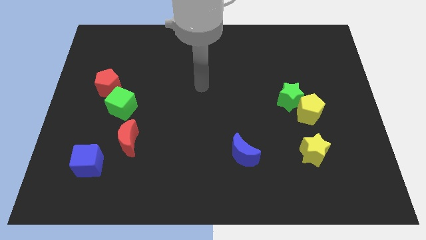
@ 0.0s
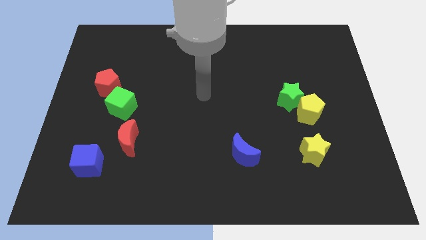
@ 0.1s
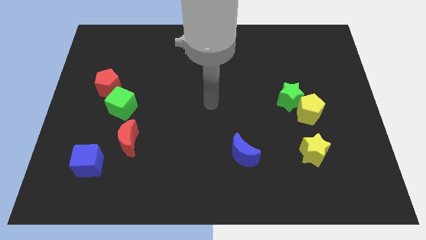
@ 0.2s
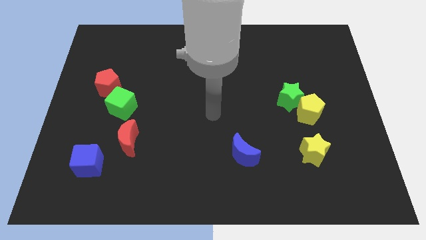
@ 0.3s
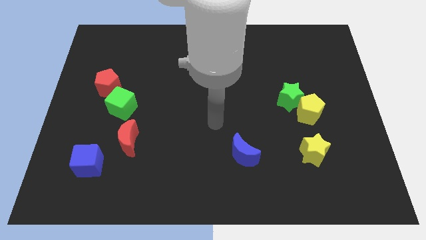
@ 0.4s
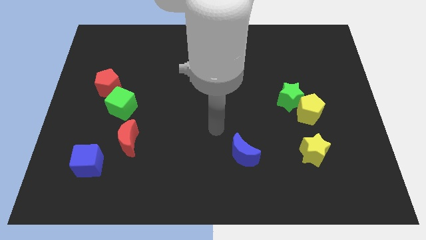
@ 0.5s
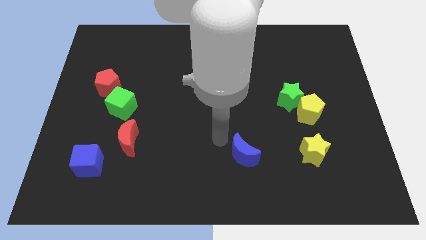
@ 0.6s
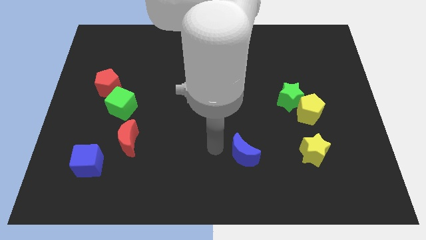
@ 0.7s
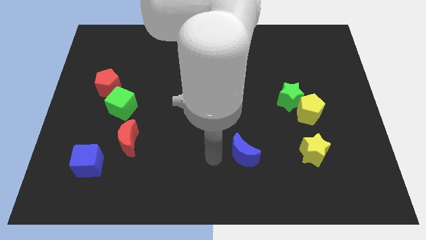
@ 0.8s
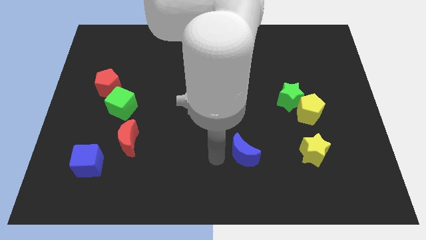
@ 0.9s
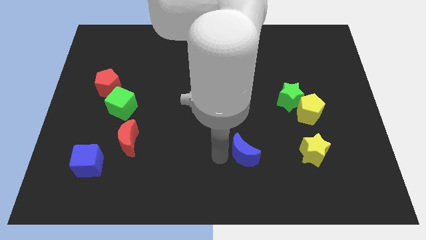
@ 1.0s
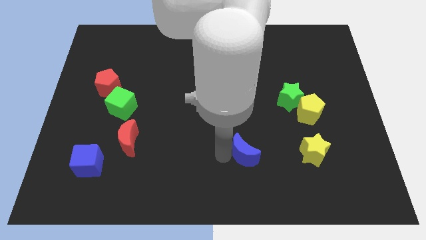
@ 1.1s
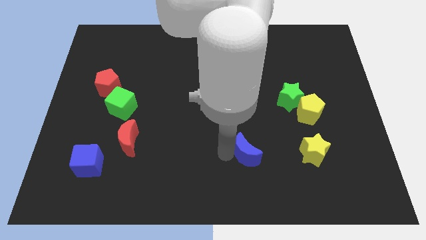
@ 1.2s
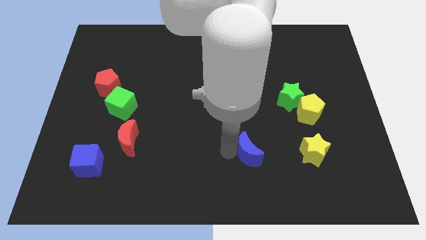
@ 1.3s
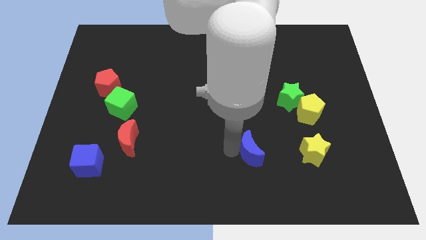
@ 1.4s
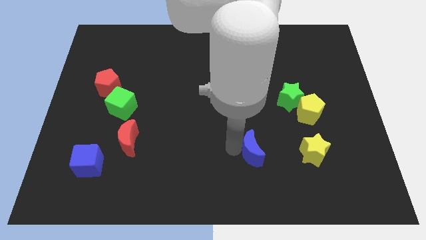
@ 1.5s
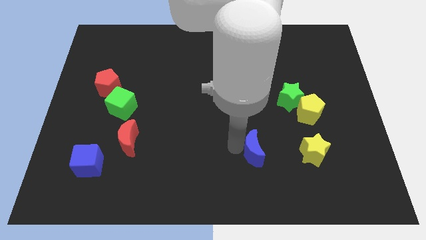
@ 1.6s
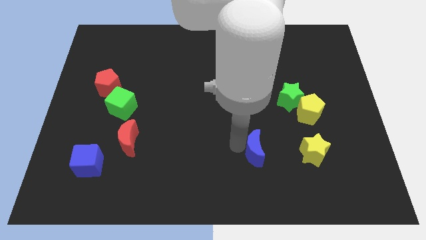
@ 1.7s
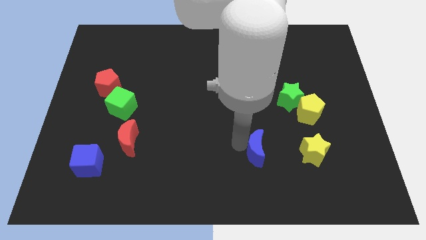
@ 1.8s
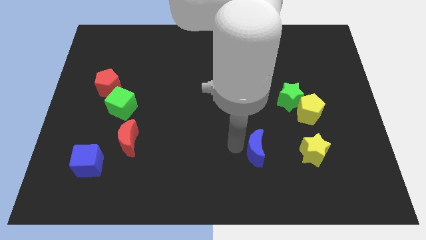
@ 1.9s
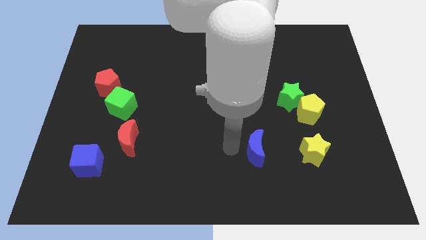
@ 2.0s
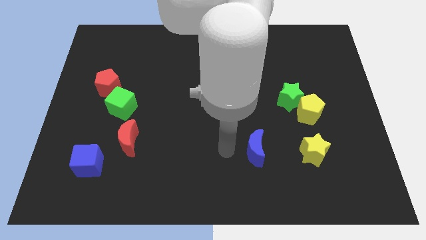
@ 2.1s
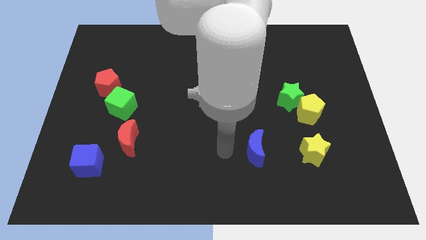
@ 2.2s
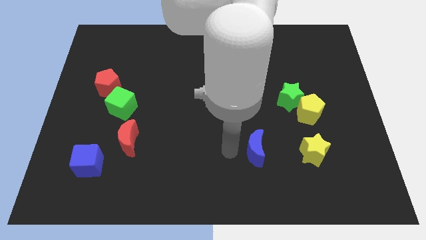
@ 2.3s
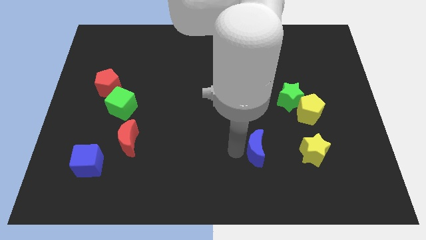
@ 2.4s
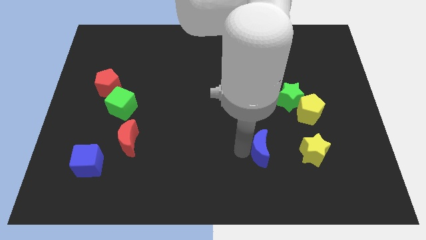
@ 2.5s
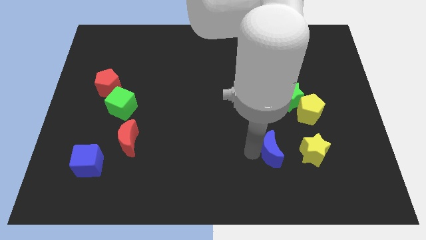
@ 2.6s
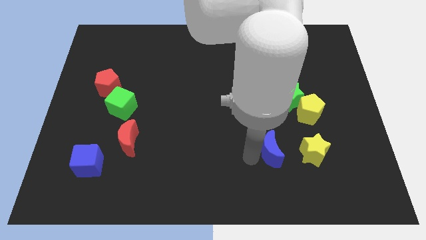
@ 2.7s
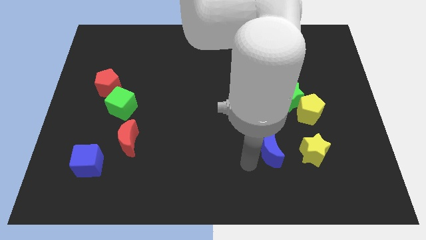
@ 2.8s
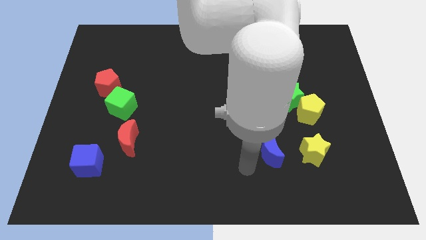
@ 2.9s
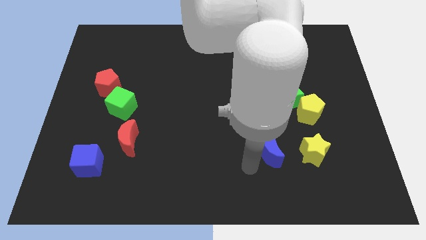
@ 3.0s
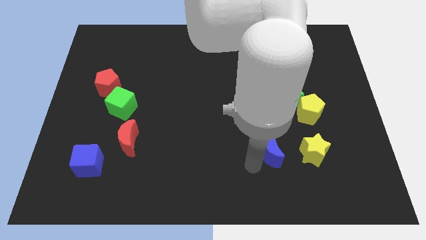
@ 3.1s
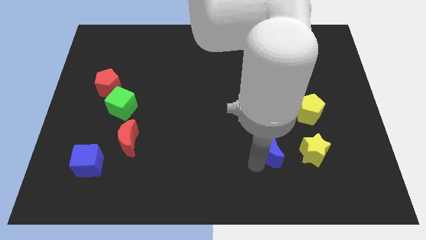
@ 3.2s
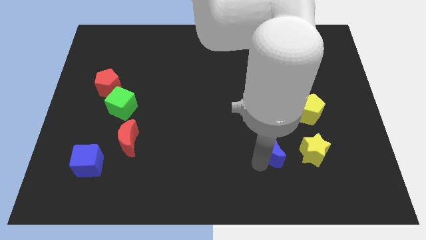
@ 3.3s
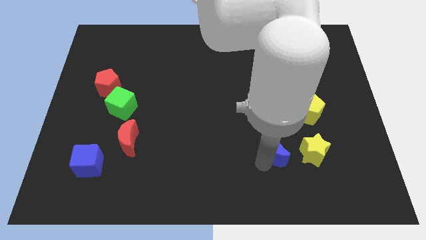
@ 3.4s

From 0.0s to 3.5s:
slightly push the blue moon to the right

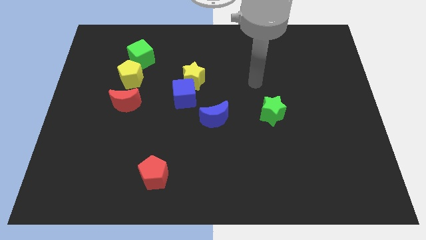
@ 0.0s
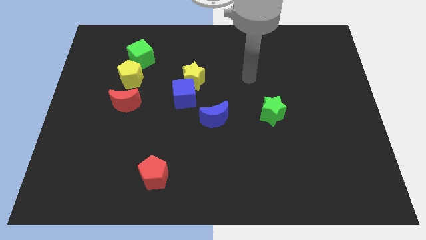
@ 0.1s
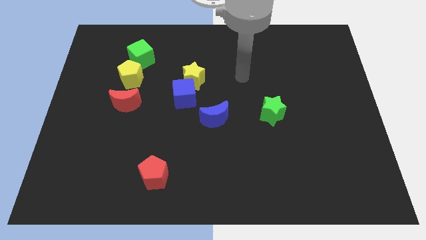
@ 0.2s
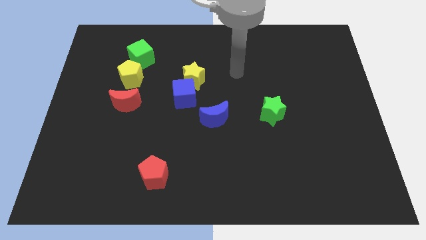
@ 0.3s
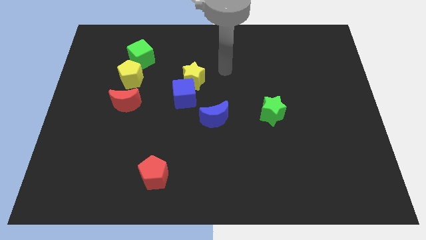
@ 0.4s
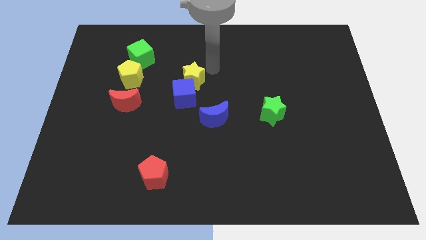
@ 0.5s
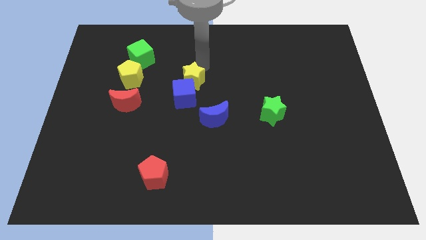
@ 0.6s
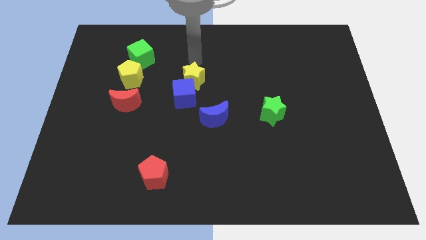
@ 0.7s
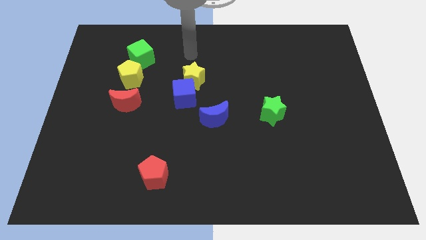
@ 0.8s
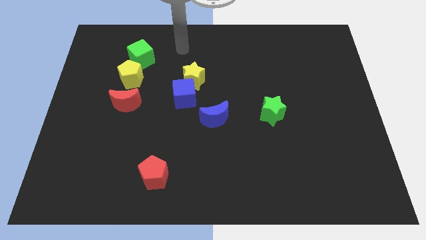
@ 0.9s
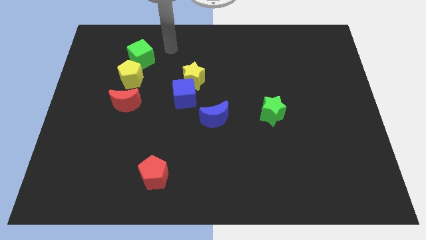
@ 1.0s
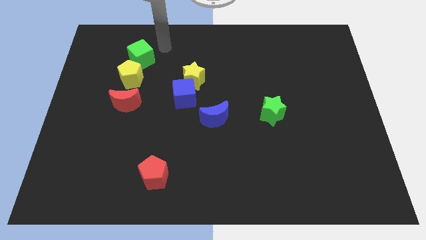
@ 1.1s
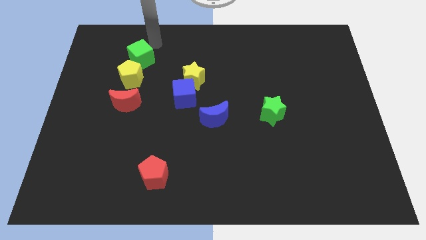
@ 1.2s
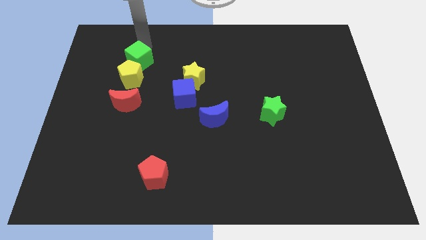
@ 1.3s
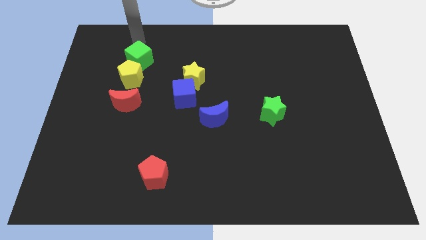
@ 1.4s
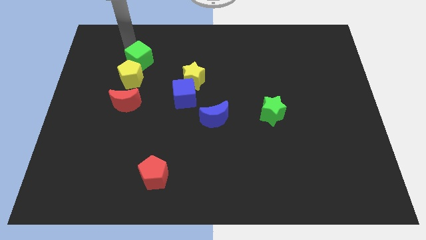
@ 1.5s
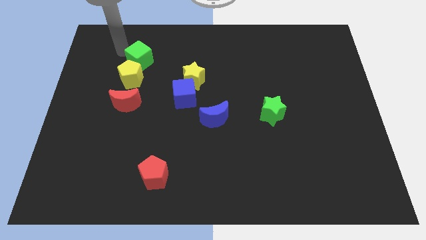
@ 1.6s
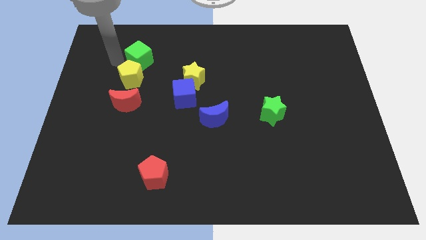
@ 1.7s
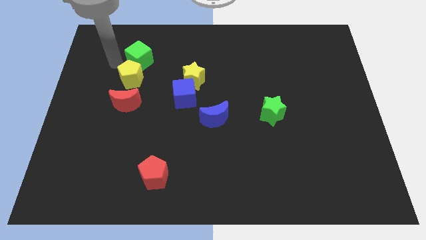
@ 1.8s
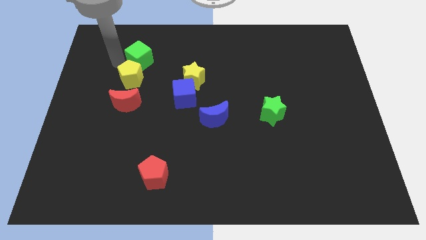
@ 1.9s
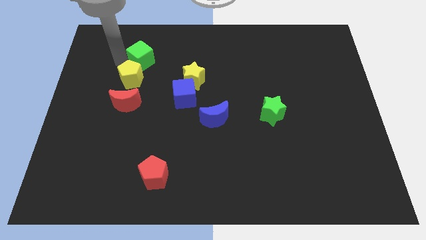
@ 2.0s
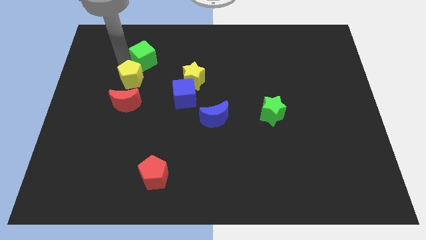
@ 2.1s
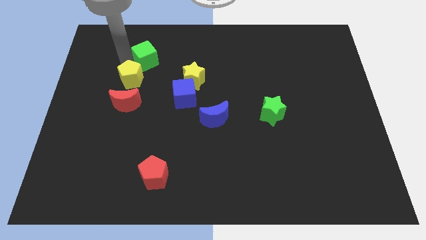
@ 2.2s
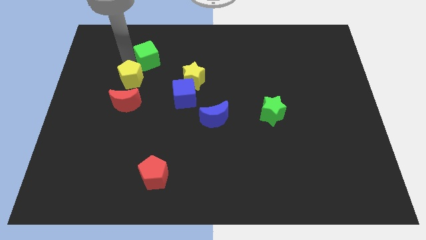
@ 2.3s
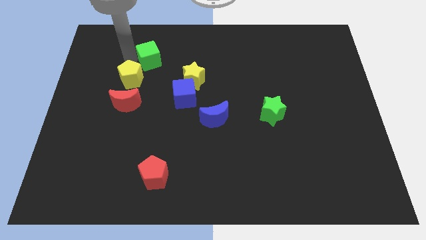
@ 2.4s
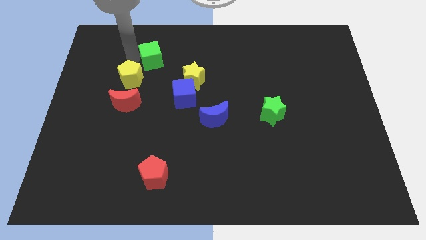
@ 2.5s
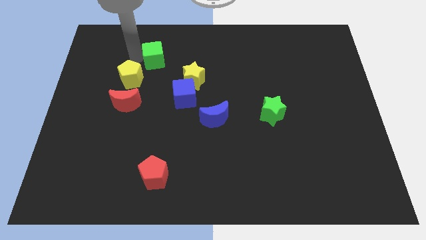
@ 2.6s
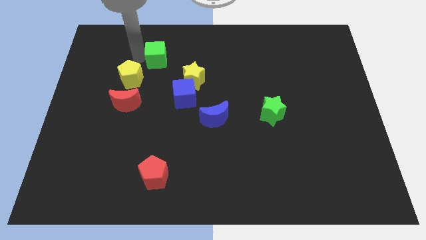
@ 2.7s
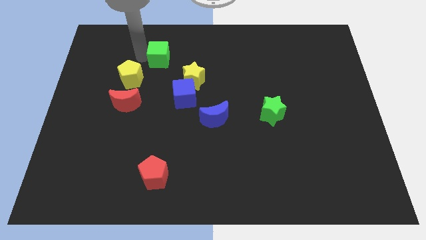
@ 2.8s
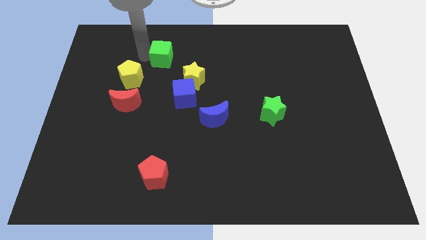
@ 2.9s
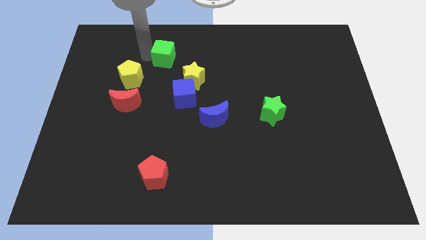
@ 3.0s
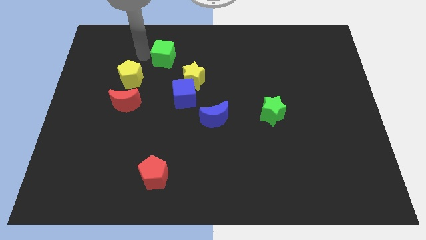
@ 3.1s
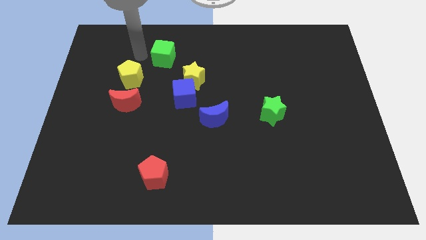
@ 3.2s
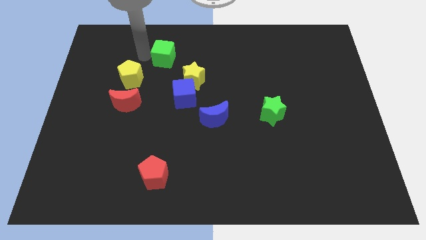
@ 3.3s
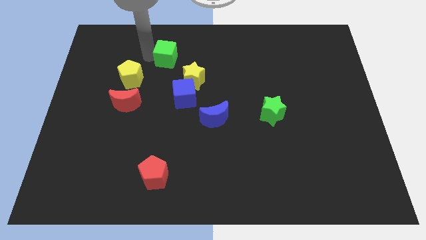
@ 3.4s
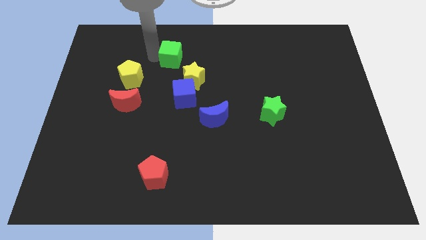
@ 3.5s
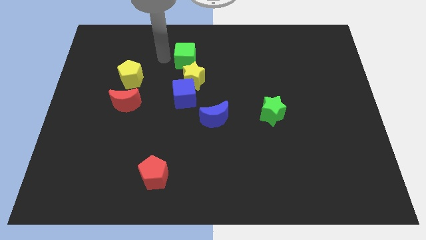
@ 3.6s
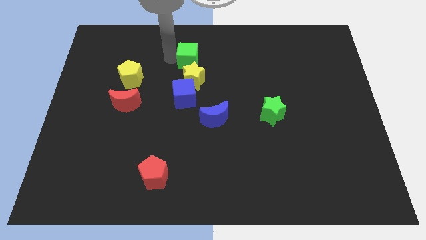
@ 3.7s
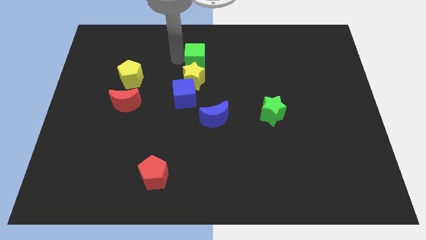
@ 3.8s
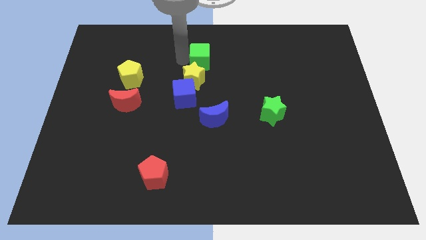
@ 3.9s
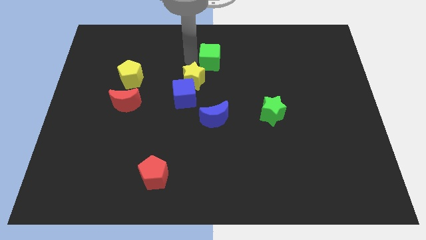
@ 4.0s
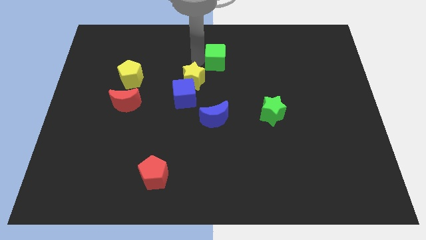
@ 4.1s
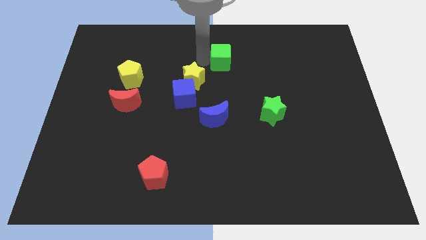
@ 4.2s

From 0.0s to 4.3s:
move the green cube right

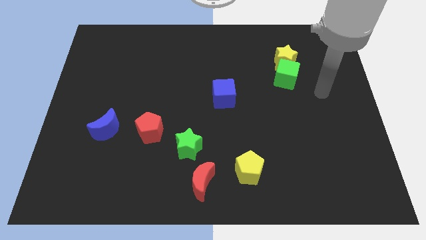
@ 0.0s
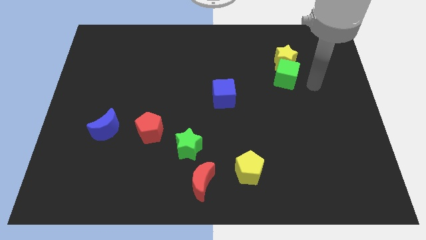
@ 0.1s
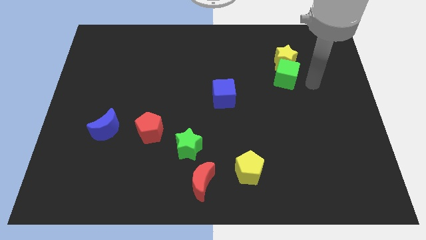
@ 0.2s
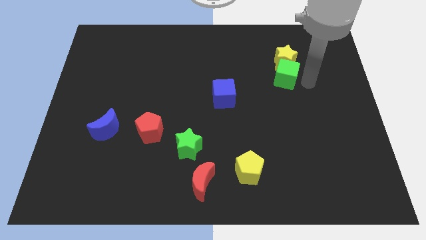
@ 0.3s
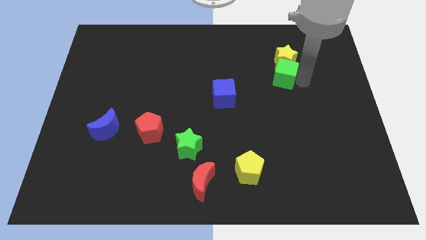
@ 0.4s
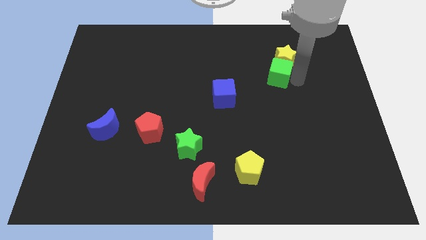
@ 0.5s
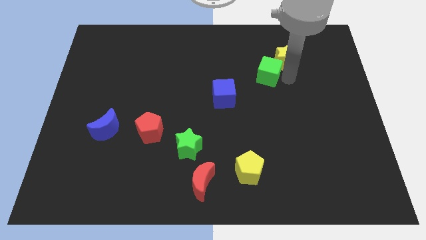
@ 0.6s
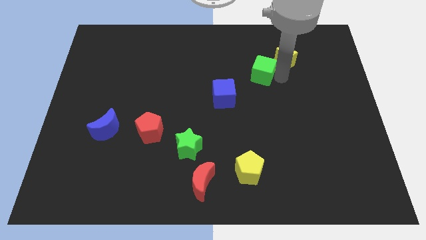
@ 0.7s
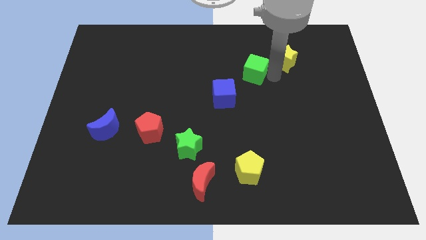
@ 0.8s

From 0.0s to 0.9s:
move the green cube to the left a bit
